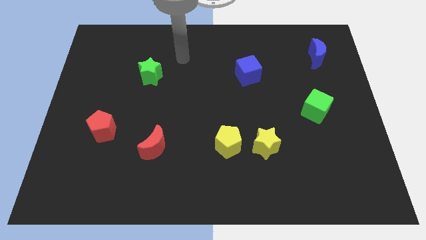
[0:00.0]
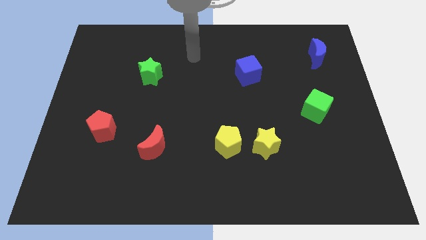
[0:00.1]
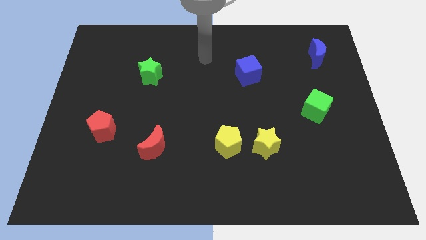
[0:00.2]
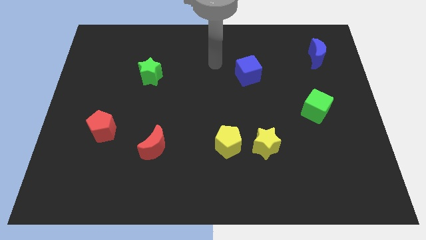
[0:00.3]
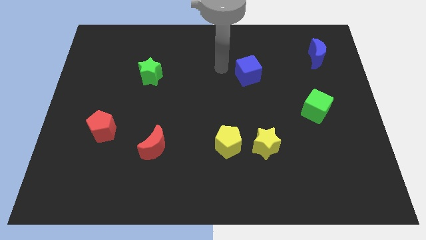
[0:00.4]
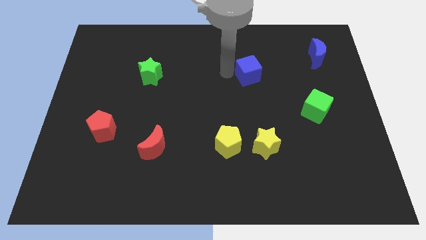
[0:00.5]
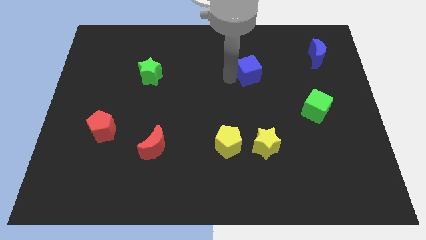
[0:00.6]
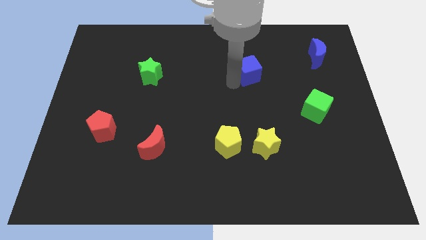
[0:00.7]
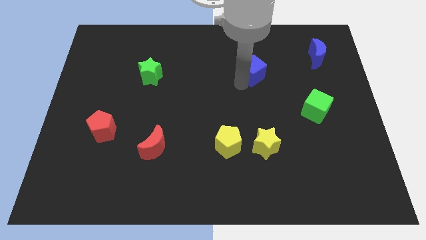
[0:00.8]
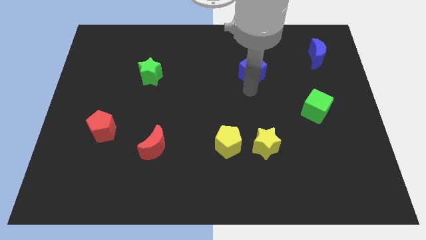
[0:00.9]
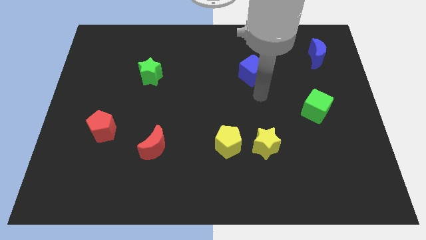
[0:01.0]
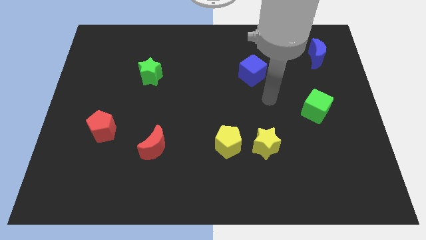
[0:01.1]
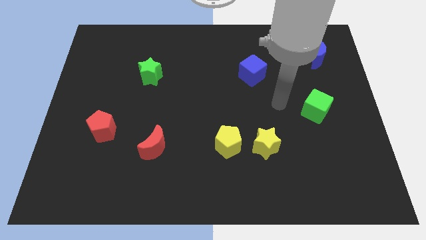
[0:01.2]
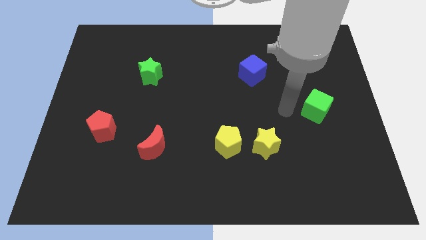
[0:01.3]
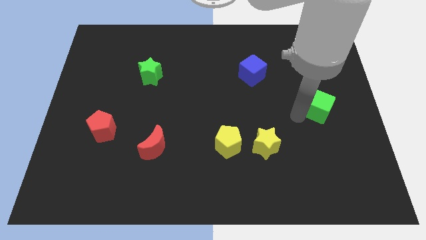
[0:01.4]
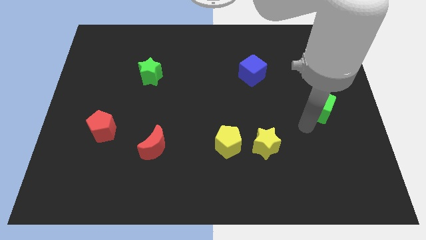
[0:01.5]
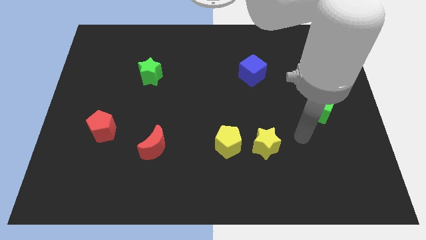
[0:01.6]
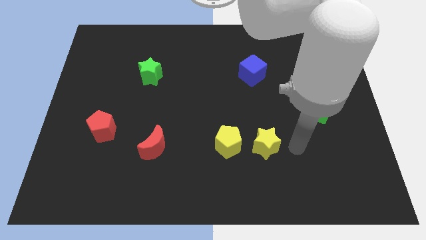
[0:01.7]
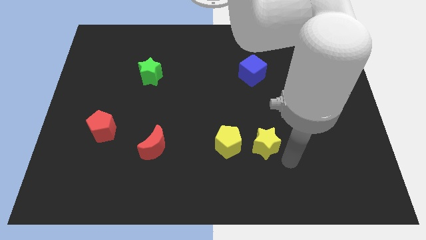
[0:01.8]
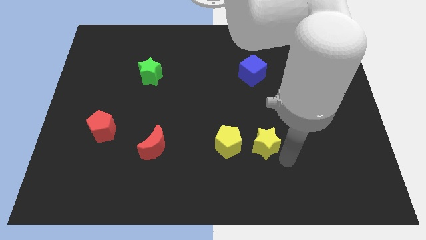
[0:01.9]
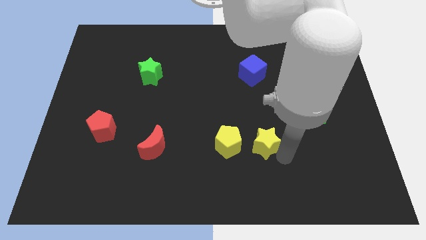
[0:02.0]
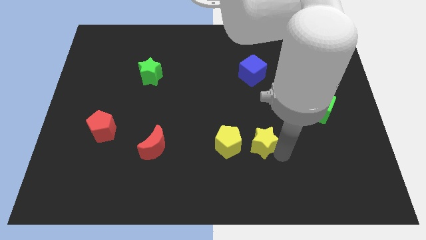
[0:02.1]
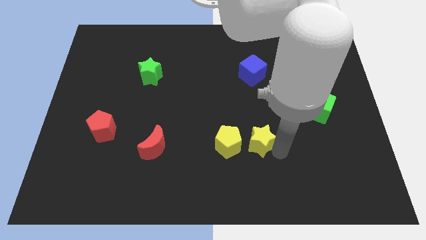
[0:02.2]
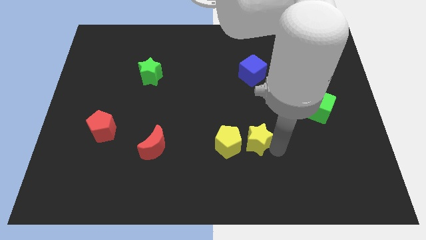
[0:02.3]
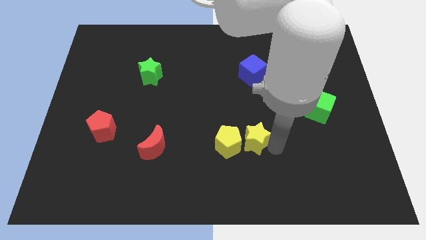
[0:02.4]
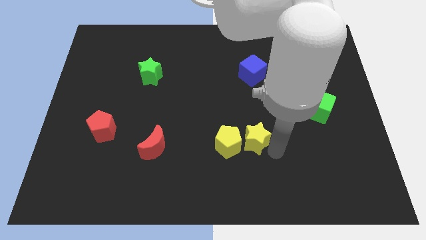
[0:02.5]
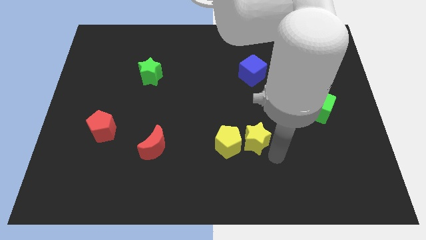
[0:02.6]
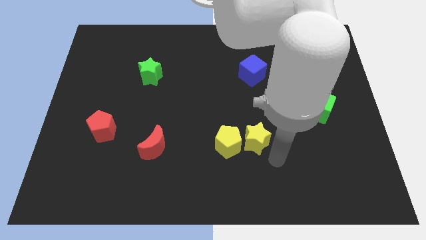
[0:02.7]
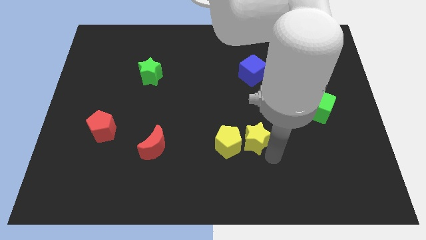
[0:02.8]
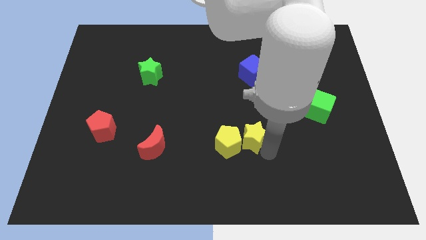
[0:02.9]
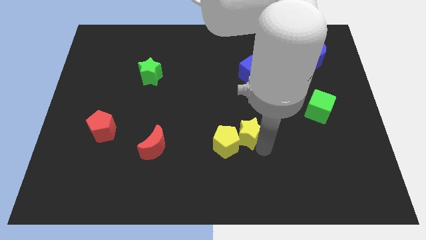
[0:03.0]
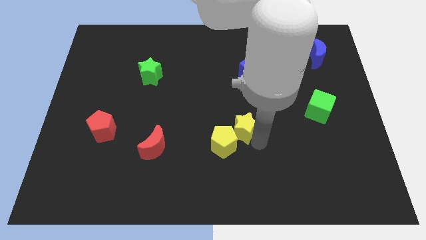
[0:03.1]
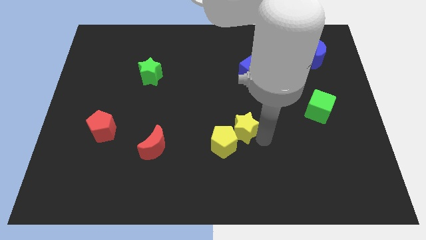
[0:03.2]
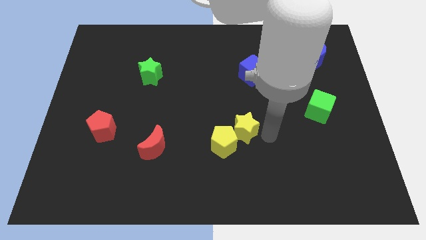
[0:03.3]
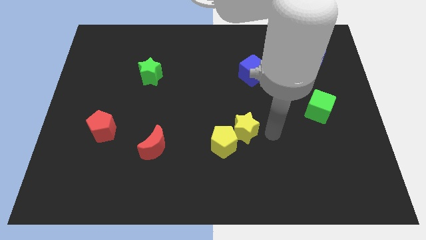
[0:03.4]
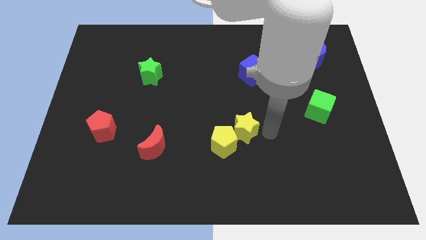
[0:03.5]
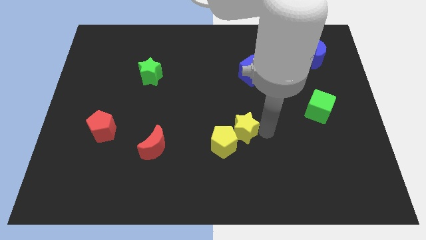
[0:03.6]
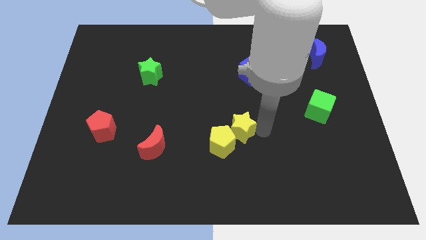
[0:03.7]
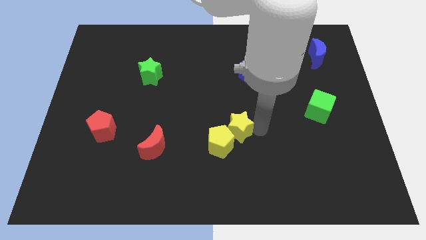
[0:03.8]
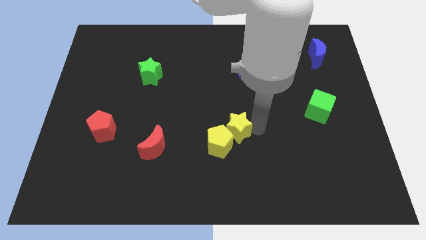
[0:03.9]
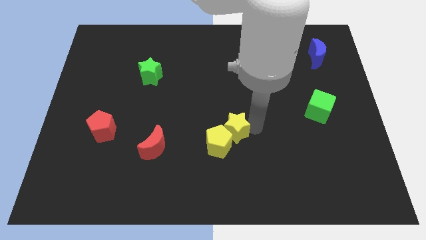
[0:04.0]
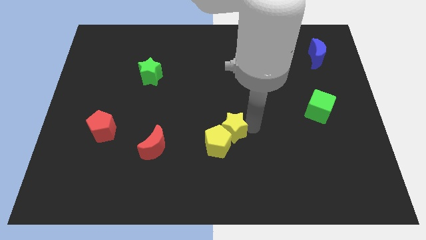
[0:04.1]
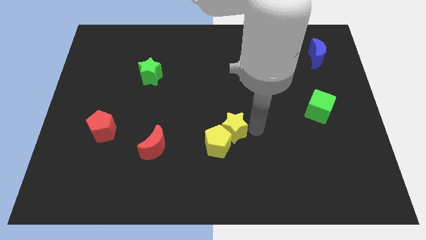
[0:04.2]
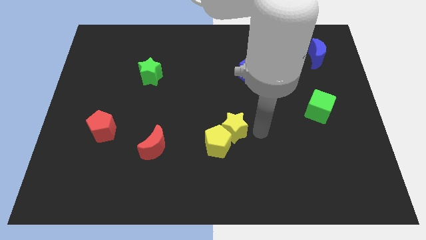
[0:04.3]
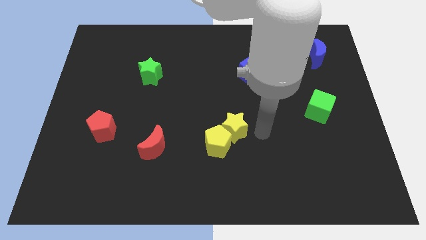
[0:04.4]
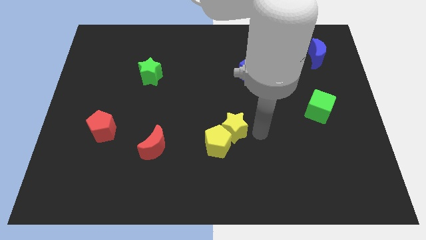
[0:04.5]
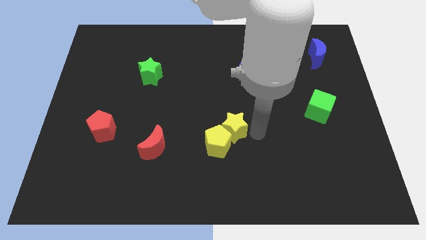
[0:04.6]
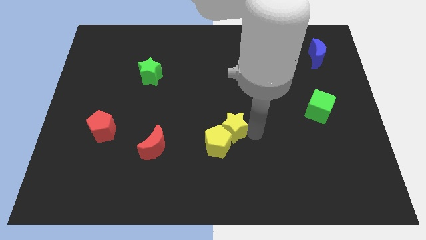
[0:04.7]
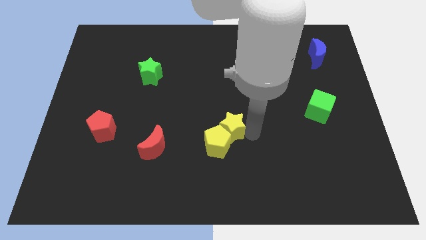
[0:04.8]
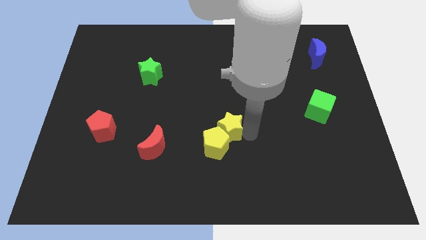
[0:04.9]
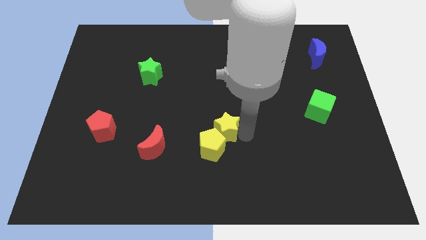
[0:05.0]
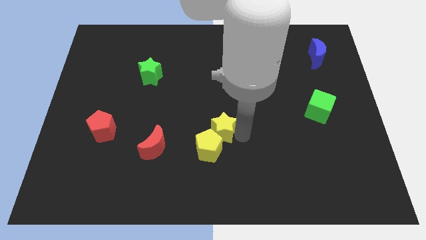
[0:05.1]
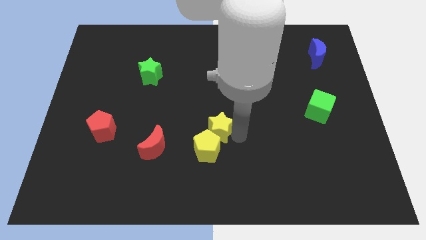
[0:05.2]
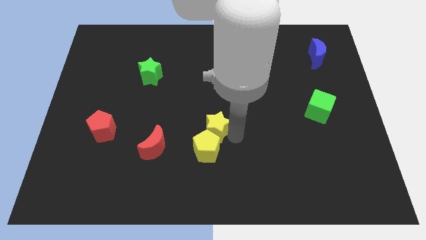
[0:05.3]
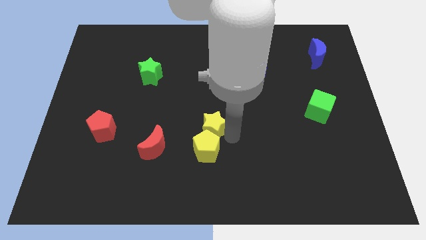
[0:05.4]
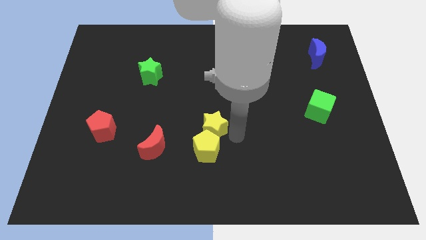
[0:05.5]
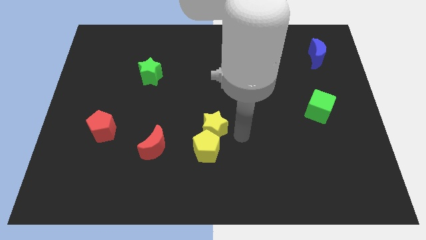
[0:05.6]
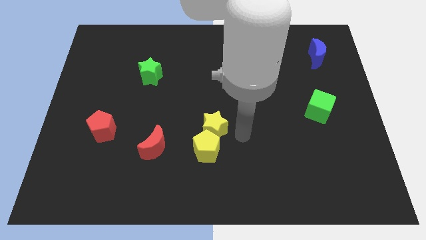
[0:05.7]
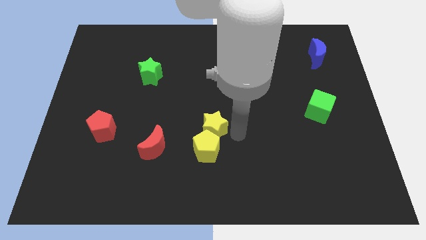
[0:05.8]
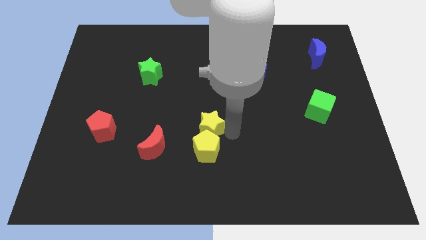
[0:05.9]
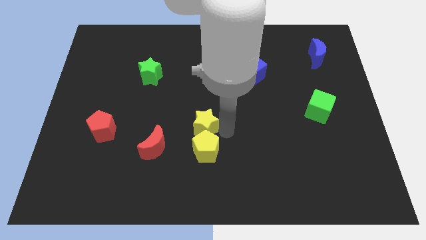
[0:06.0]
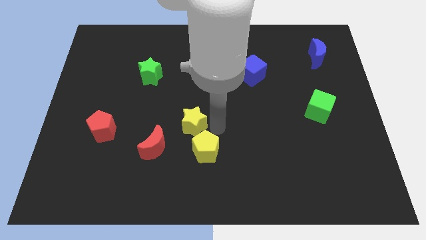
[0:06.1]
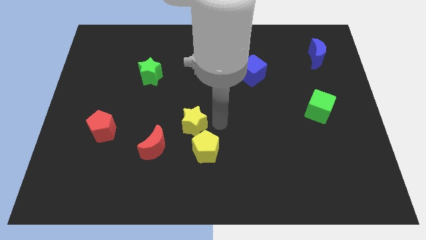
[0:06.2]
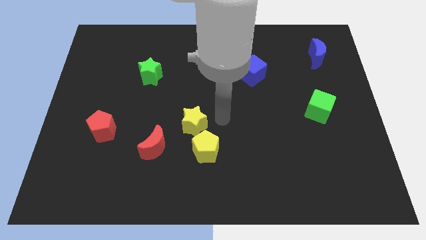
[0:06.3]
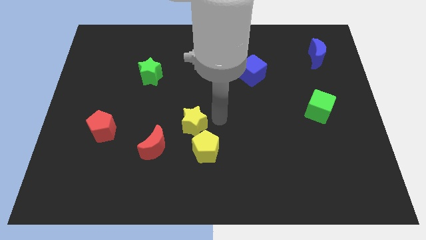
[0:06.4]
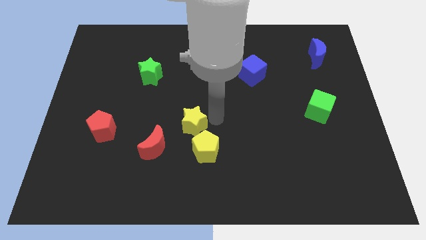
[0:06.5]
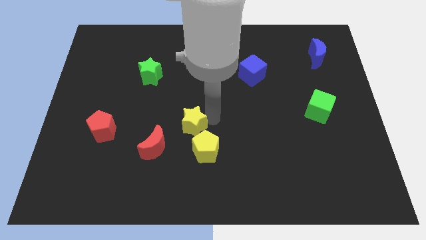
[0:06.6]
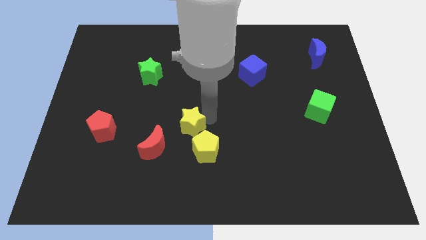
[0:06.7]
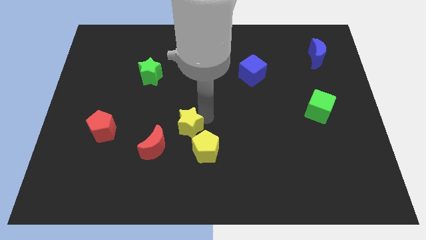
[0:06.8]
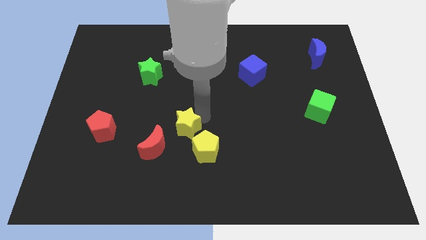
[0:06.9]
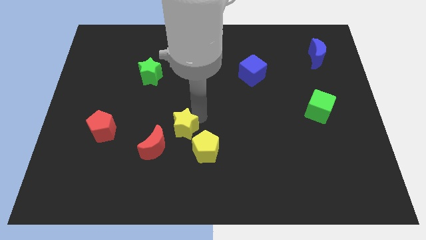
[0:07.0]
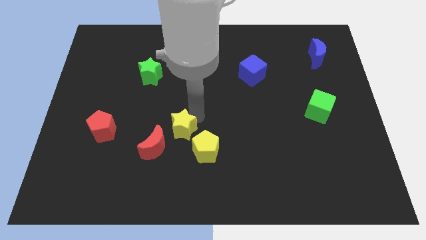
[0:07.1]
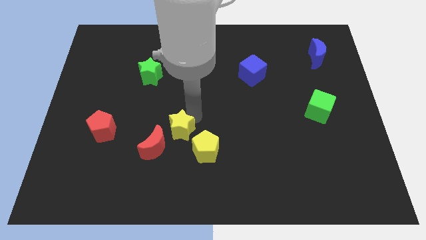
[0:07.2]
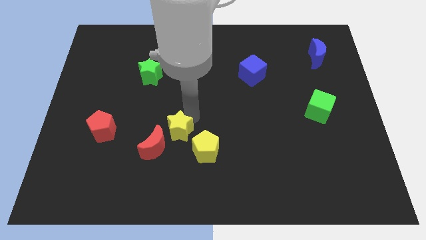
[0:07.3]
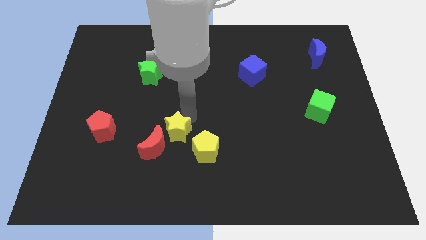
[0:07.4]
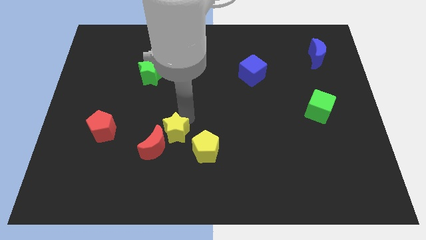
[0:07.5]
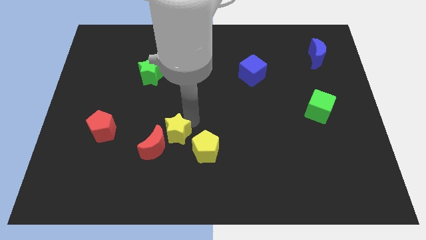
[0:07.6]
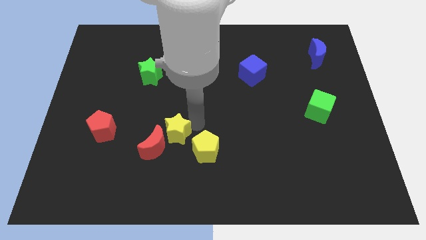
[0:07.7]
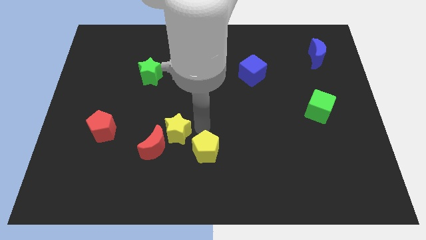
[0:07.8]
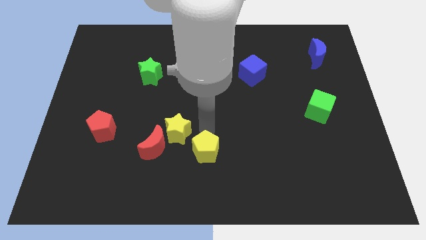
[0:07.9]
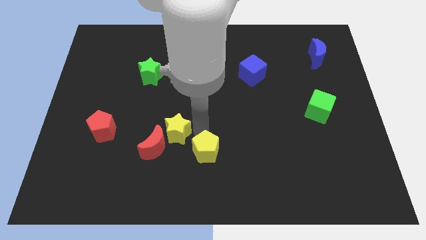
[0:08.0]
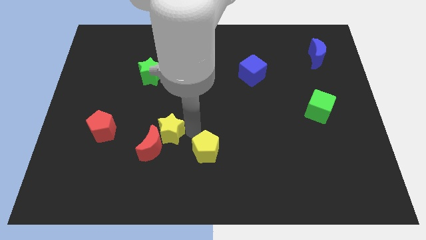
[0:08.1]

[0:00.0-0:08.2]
slide the yellow star left
